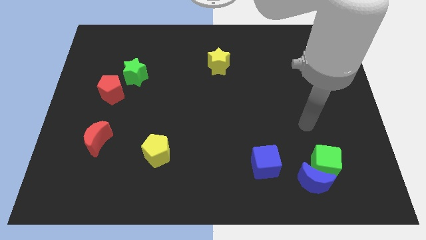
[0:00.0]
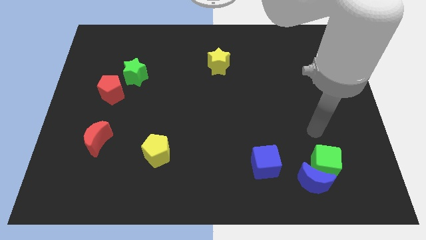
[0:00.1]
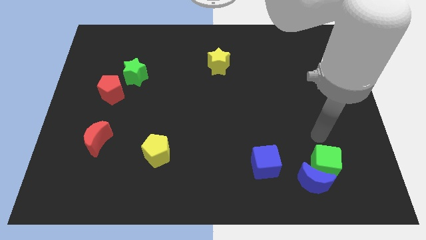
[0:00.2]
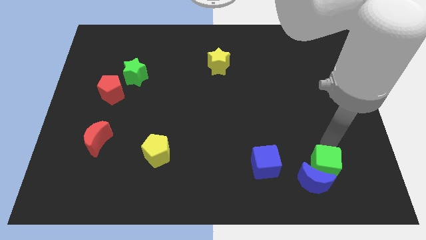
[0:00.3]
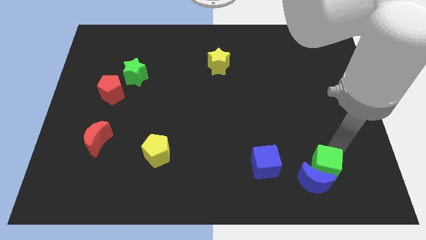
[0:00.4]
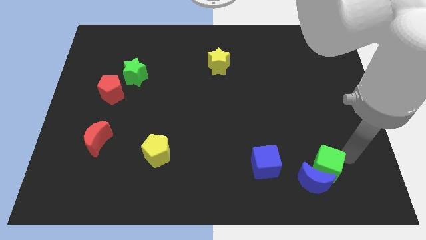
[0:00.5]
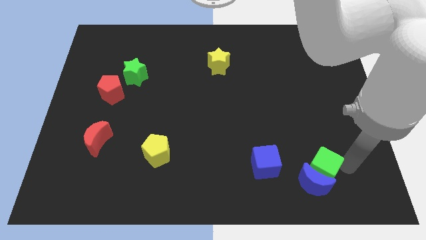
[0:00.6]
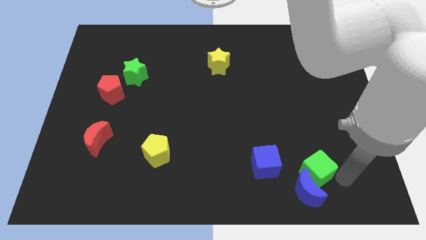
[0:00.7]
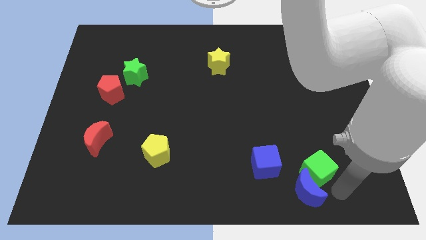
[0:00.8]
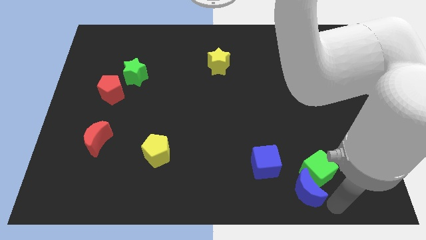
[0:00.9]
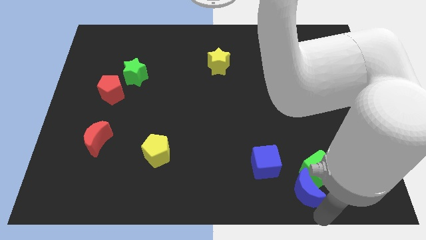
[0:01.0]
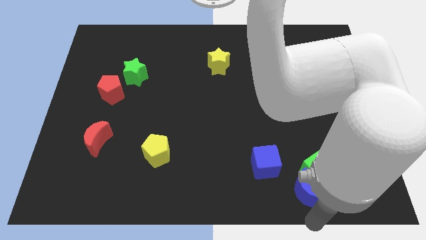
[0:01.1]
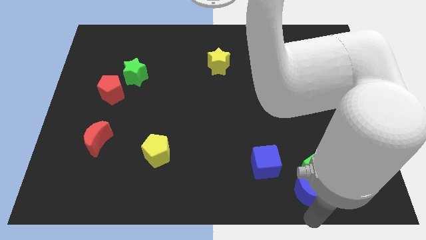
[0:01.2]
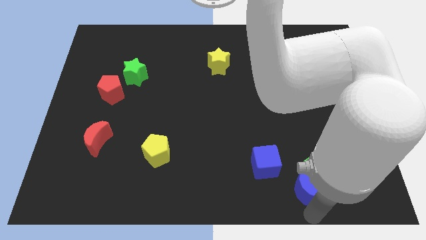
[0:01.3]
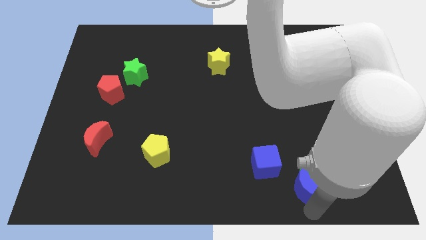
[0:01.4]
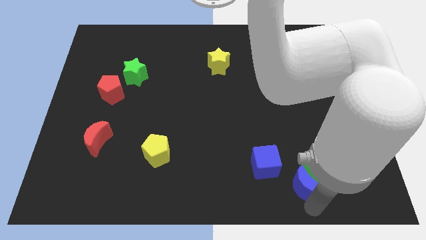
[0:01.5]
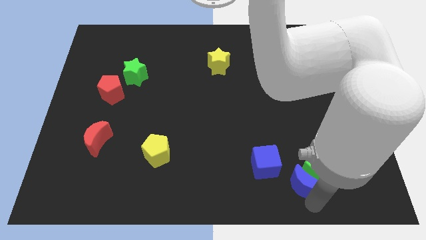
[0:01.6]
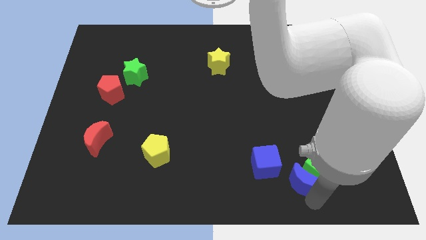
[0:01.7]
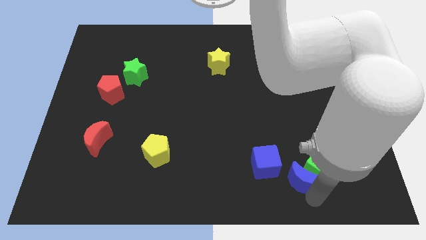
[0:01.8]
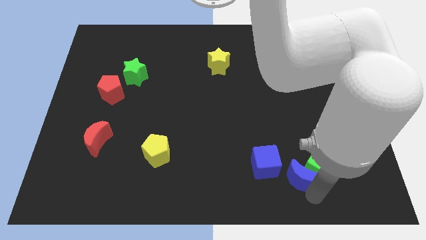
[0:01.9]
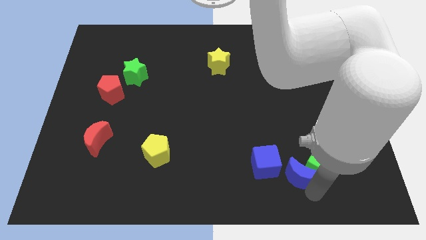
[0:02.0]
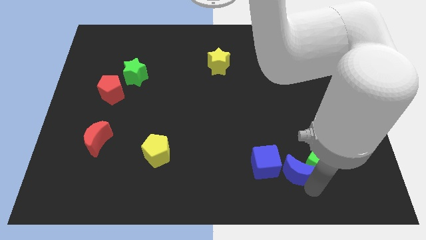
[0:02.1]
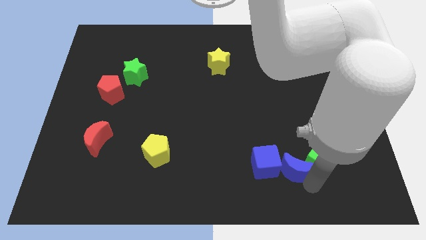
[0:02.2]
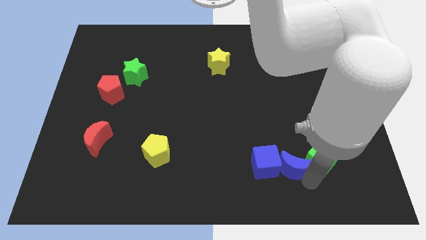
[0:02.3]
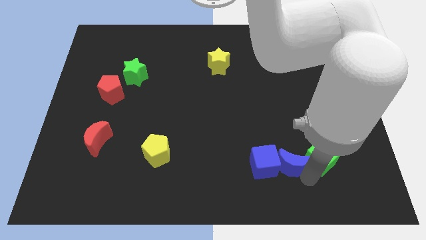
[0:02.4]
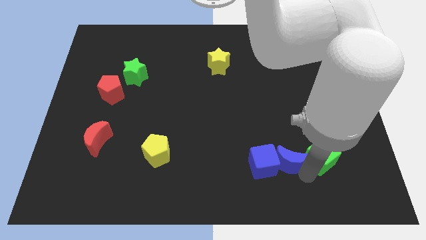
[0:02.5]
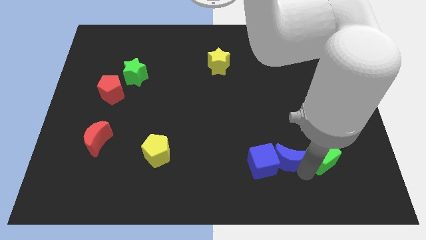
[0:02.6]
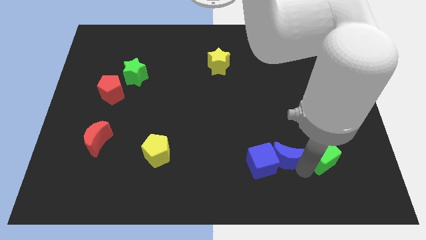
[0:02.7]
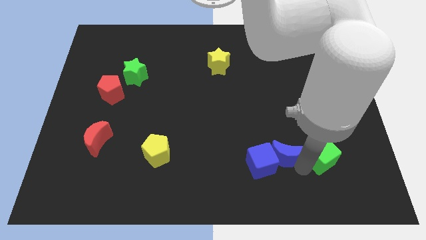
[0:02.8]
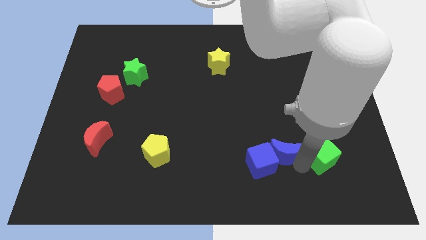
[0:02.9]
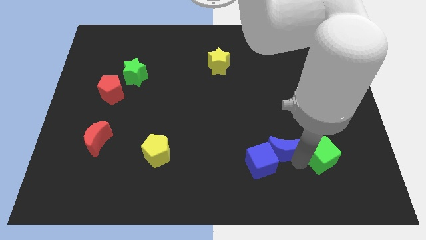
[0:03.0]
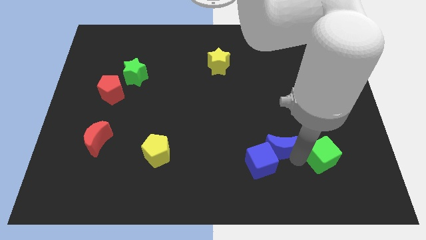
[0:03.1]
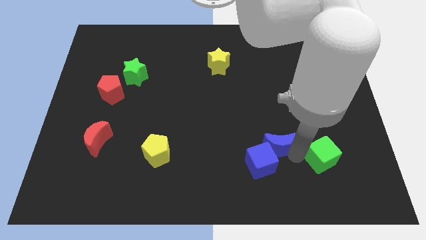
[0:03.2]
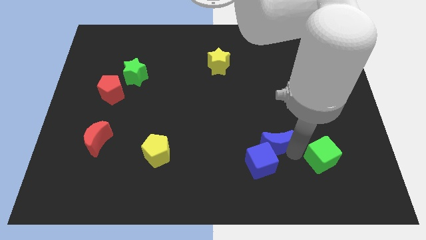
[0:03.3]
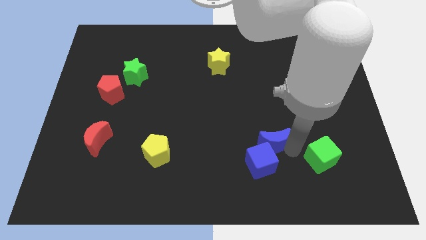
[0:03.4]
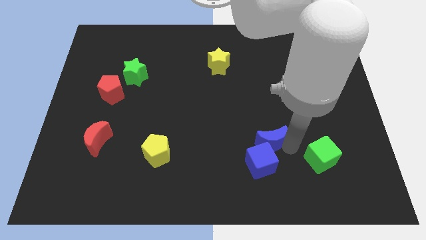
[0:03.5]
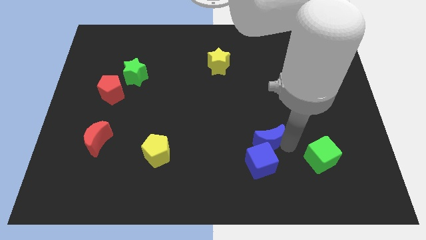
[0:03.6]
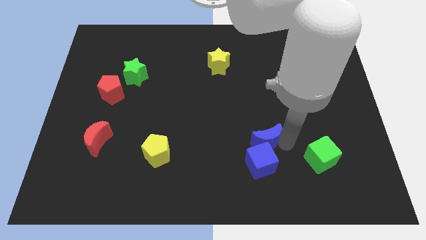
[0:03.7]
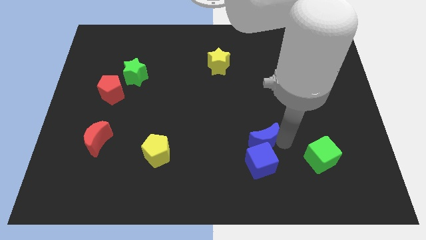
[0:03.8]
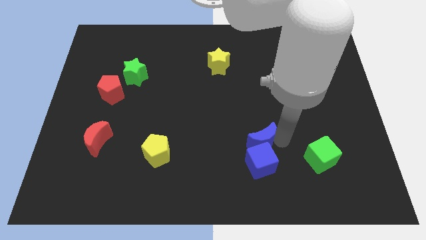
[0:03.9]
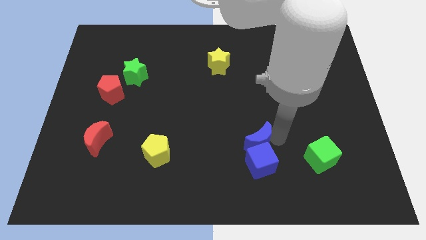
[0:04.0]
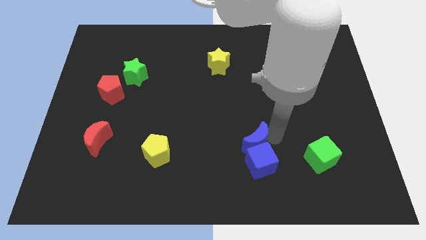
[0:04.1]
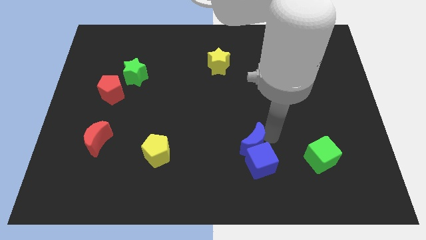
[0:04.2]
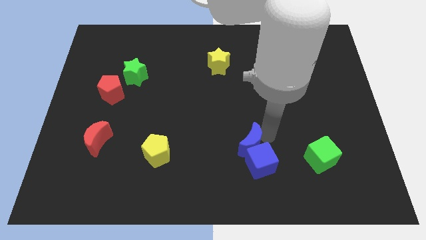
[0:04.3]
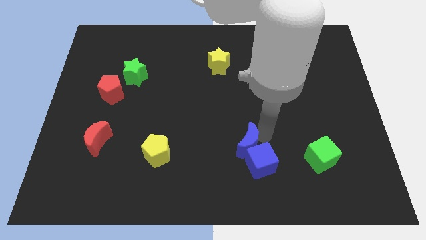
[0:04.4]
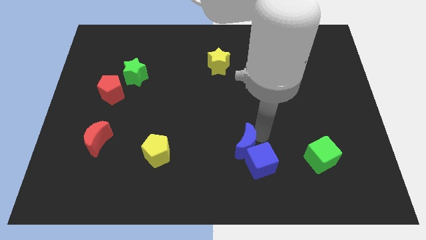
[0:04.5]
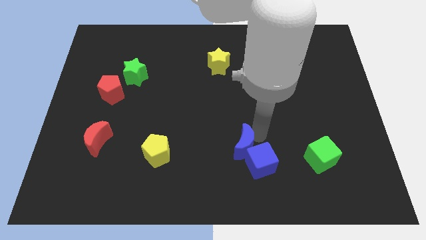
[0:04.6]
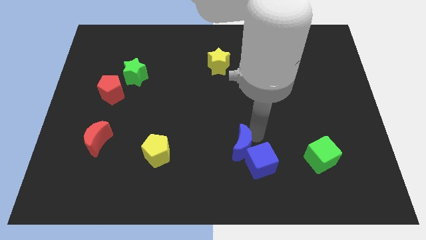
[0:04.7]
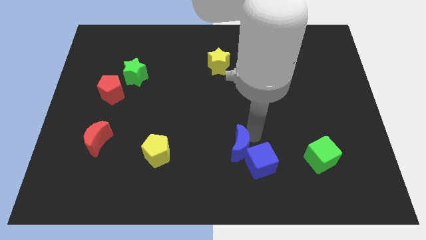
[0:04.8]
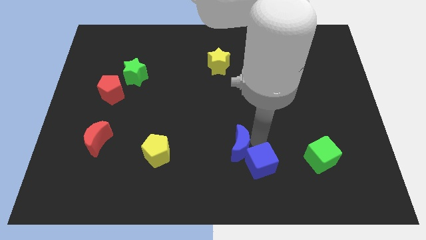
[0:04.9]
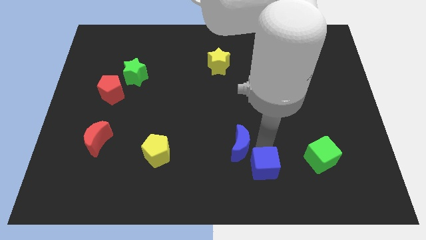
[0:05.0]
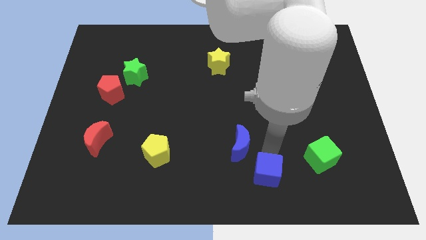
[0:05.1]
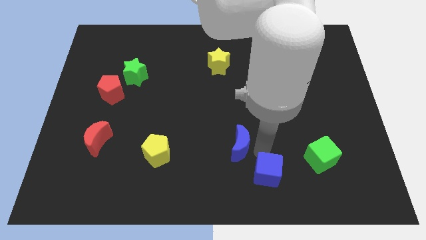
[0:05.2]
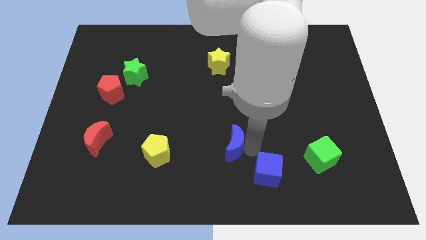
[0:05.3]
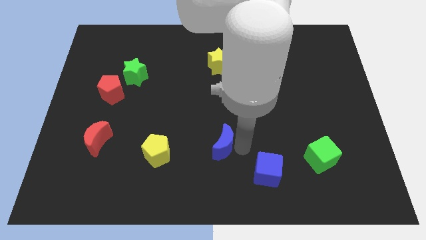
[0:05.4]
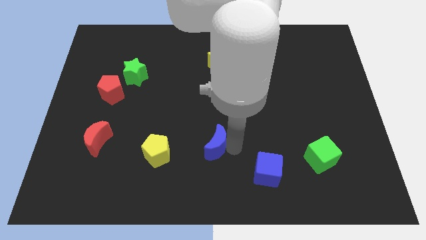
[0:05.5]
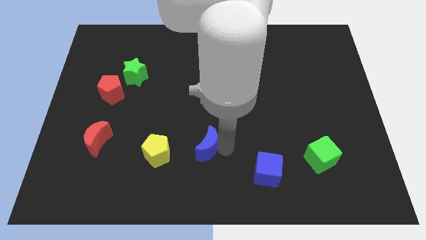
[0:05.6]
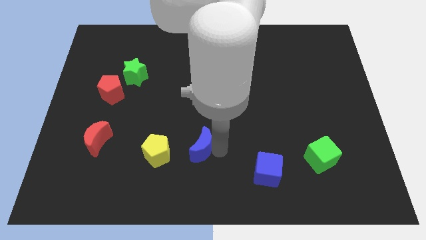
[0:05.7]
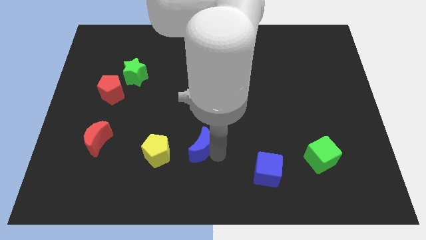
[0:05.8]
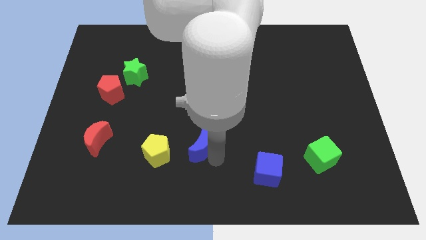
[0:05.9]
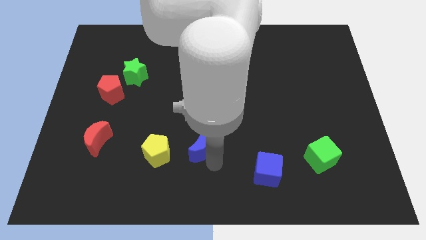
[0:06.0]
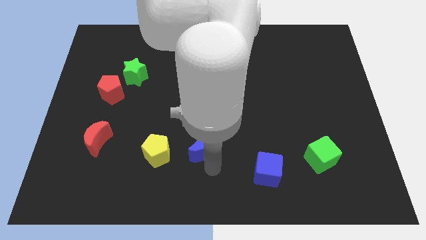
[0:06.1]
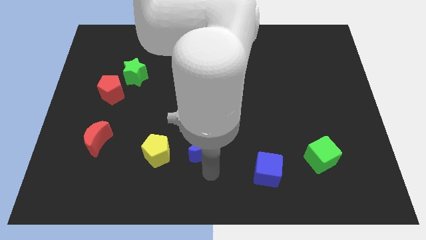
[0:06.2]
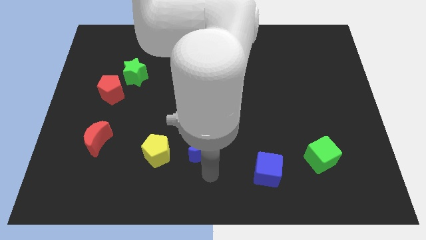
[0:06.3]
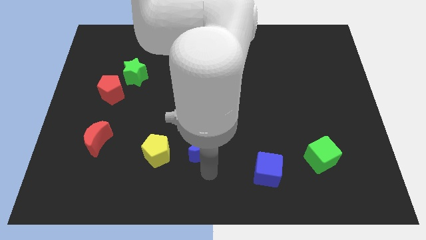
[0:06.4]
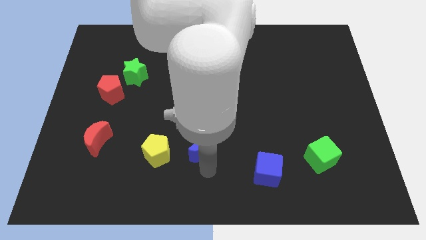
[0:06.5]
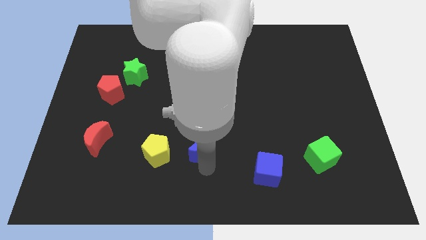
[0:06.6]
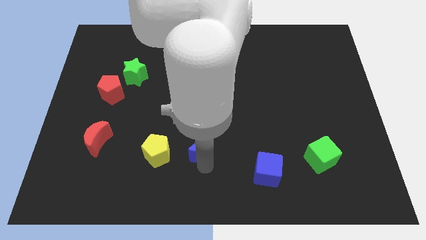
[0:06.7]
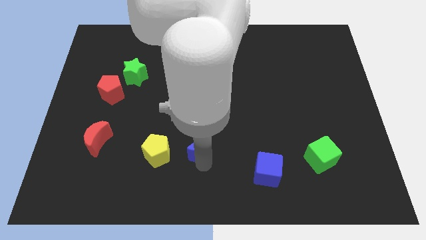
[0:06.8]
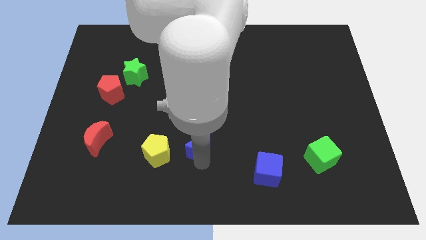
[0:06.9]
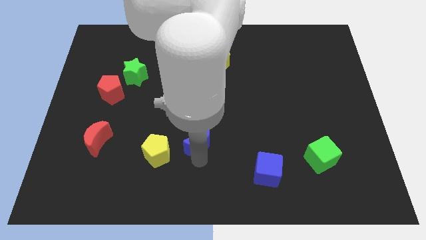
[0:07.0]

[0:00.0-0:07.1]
put the blue moon diagonally up and to the right of the yellow pentagon

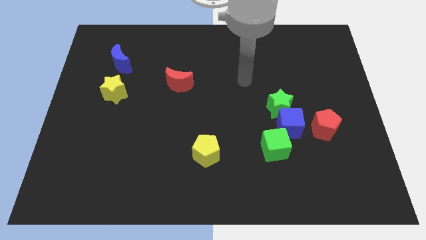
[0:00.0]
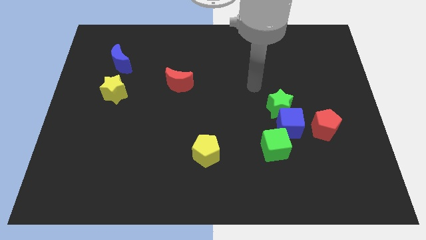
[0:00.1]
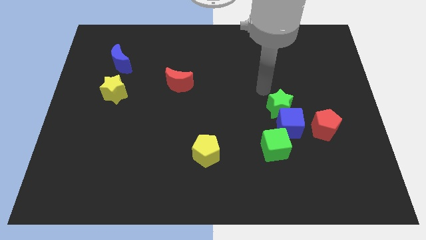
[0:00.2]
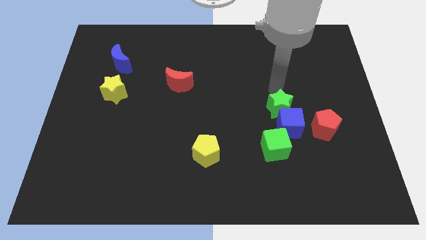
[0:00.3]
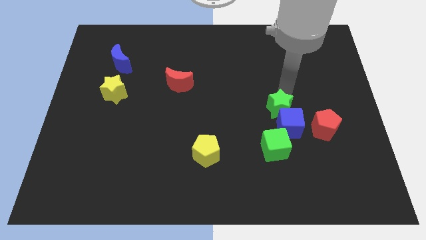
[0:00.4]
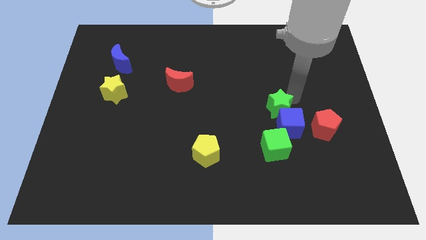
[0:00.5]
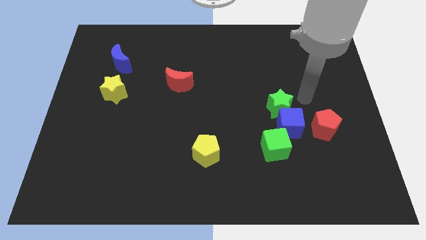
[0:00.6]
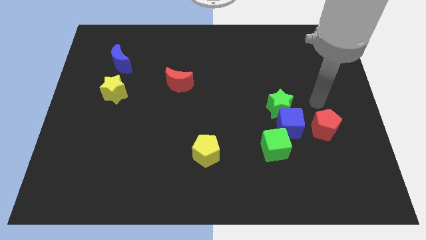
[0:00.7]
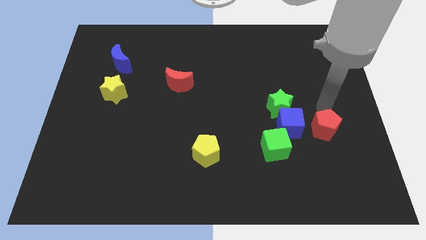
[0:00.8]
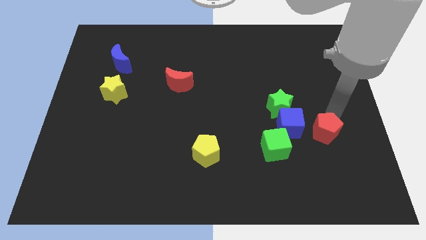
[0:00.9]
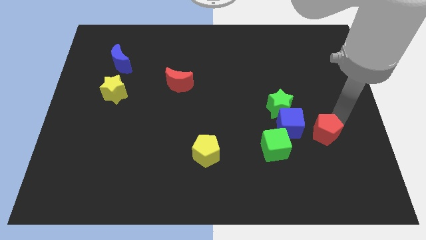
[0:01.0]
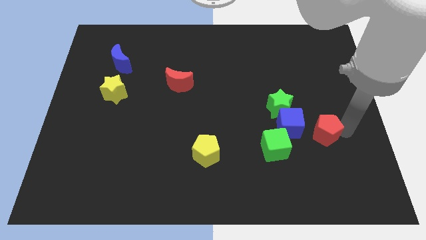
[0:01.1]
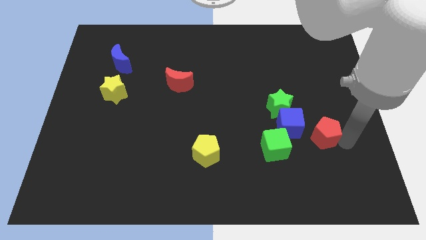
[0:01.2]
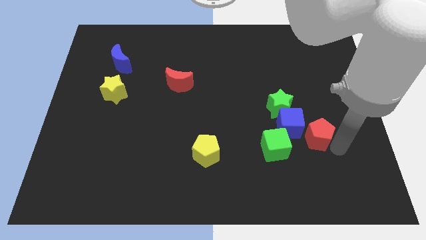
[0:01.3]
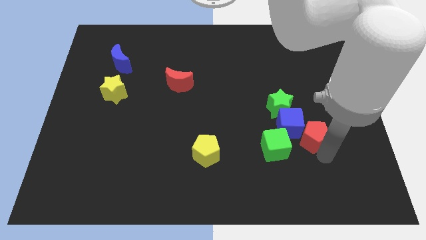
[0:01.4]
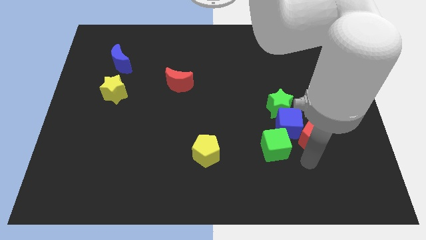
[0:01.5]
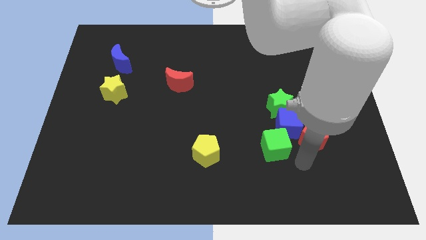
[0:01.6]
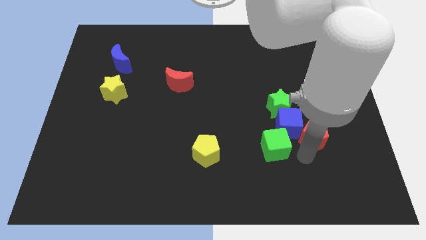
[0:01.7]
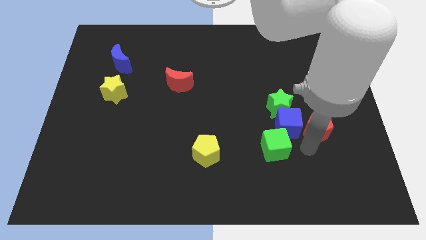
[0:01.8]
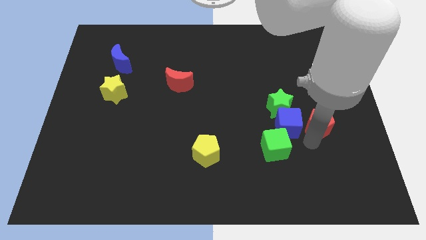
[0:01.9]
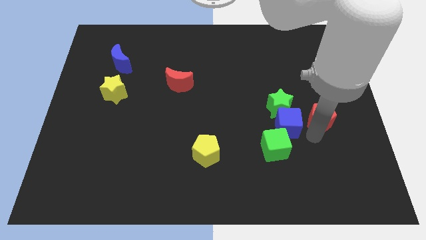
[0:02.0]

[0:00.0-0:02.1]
put the red pentagon to the right side of the green star
